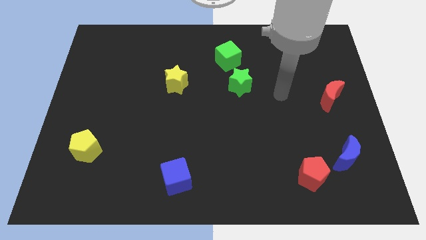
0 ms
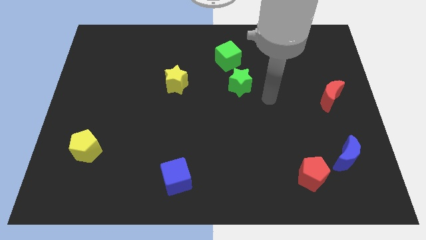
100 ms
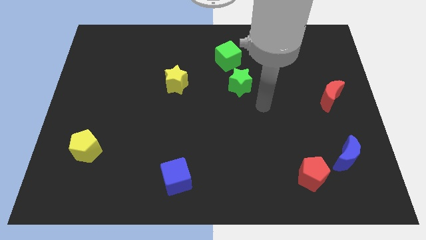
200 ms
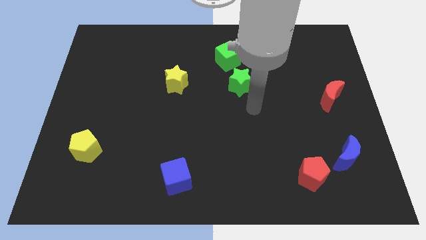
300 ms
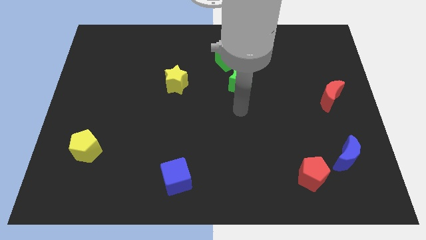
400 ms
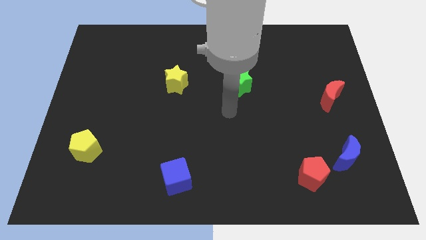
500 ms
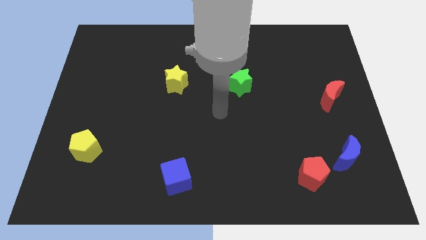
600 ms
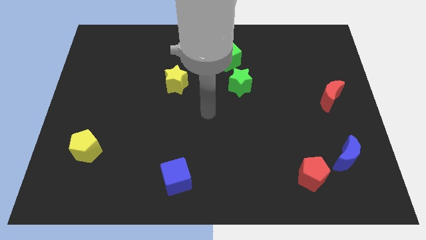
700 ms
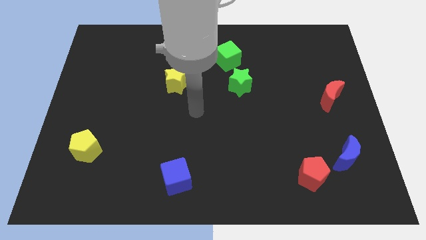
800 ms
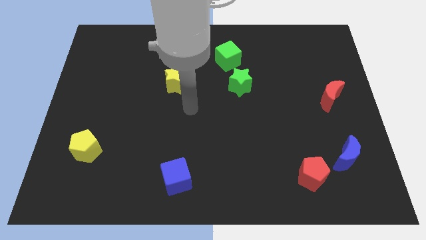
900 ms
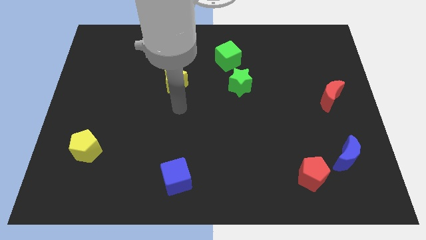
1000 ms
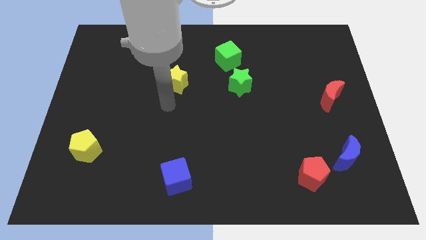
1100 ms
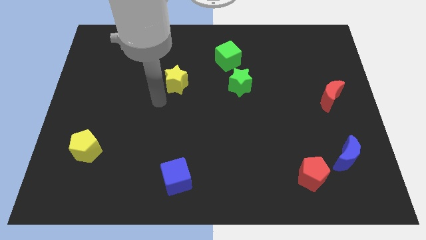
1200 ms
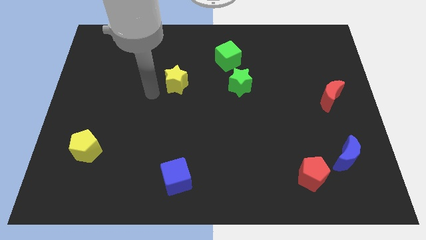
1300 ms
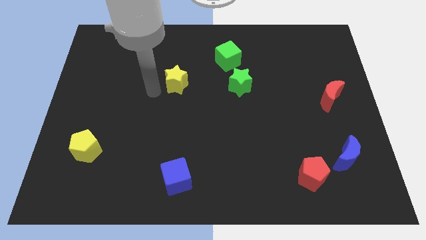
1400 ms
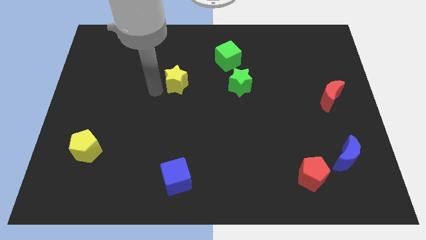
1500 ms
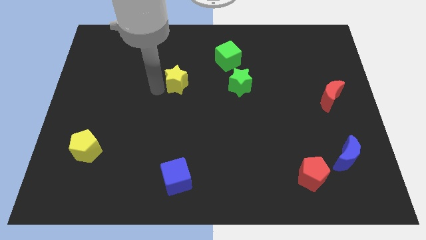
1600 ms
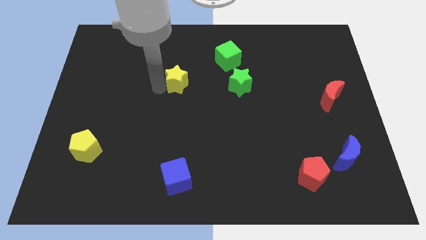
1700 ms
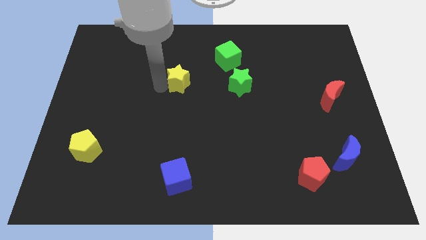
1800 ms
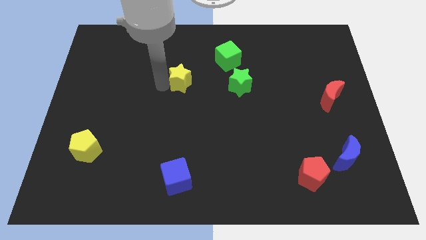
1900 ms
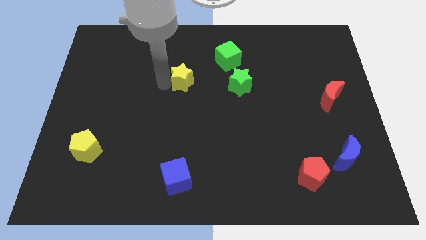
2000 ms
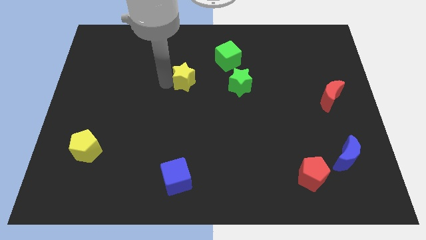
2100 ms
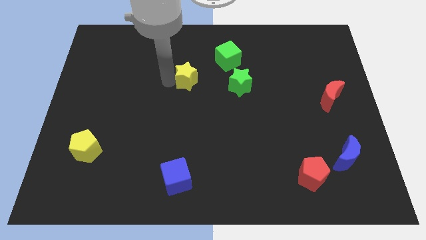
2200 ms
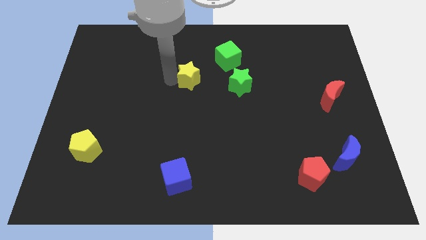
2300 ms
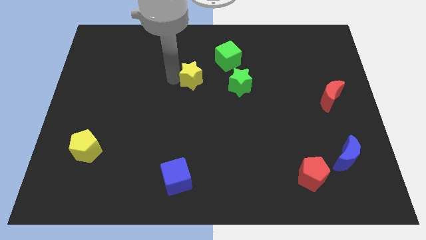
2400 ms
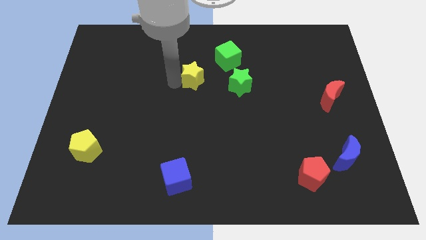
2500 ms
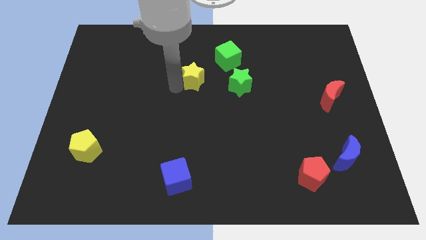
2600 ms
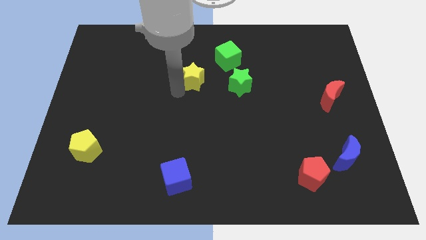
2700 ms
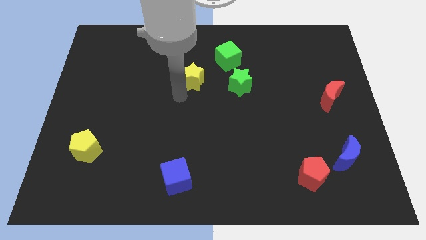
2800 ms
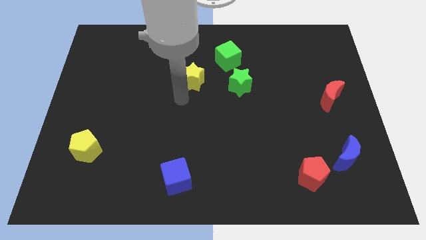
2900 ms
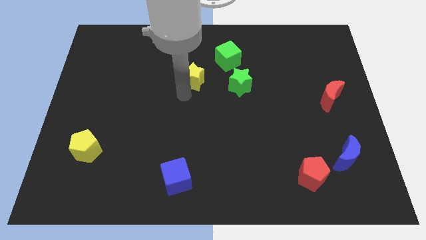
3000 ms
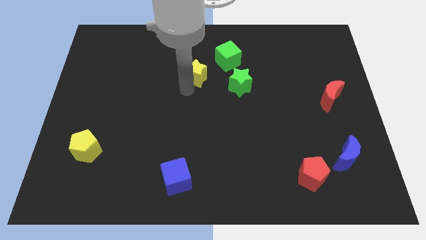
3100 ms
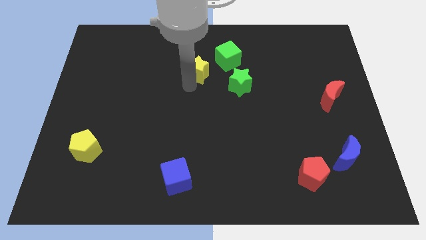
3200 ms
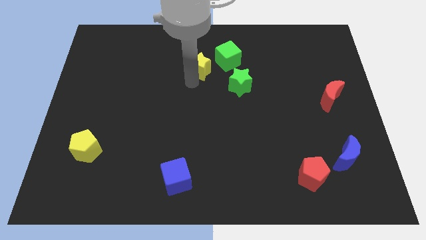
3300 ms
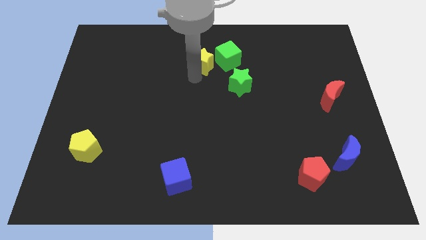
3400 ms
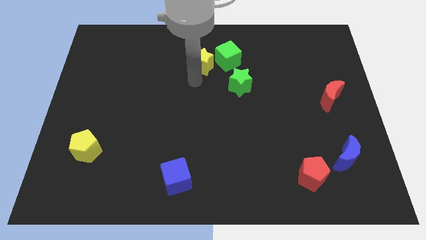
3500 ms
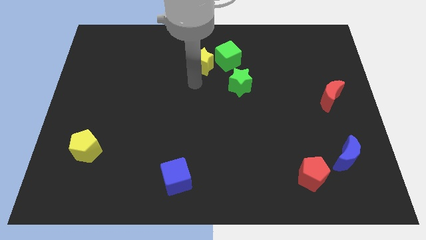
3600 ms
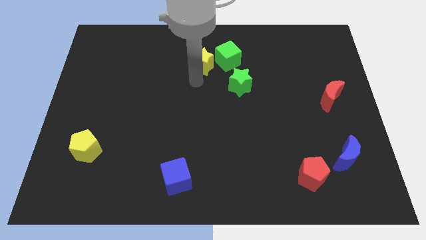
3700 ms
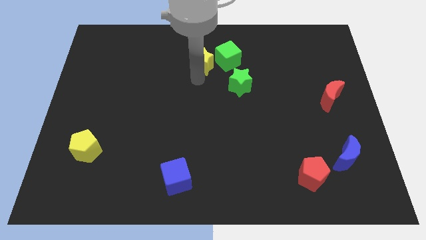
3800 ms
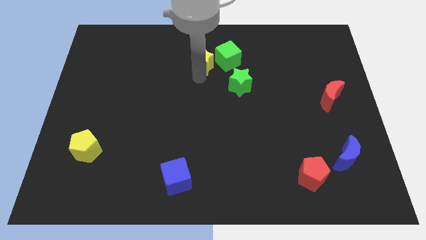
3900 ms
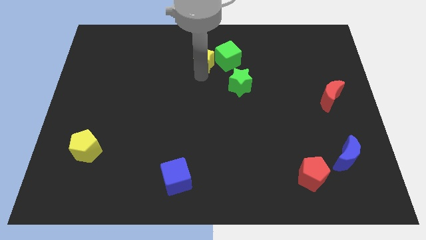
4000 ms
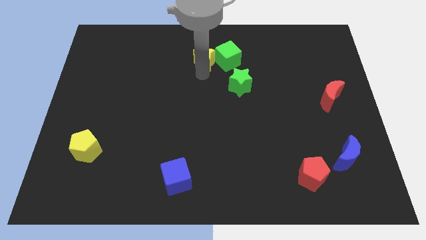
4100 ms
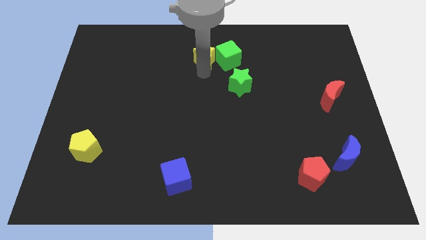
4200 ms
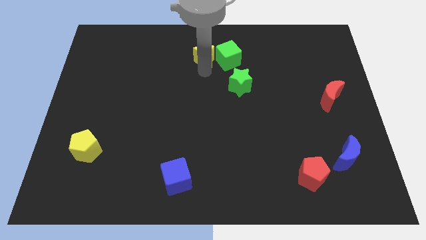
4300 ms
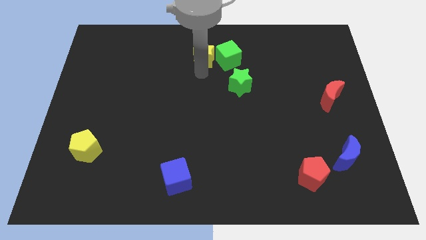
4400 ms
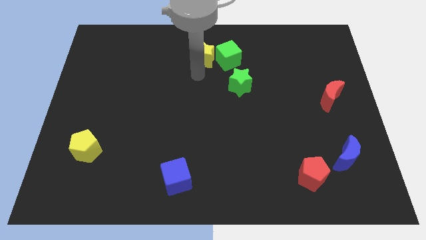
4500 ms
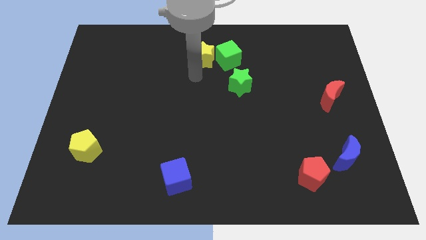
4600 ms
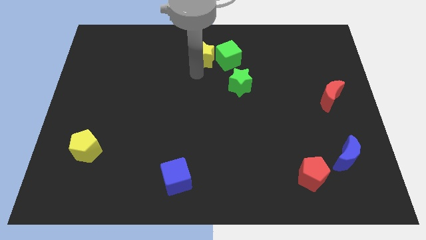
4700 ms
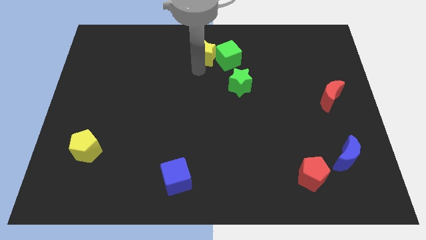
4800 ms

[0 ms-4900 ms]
push the yellow star to the top

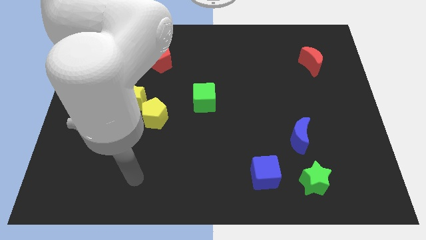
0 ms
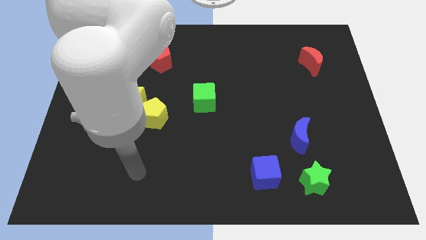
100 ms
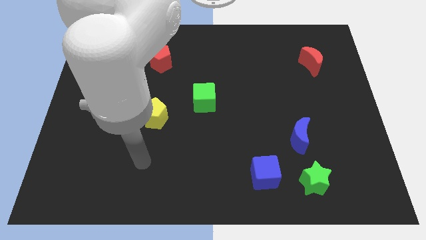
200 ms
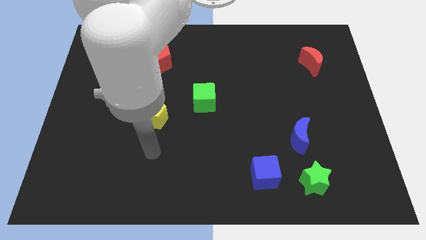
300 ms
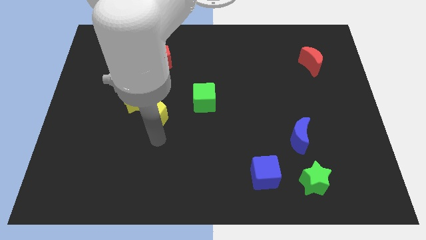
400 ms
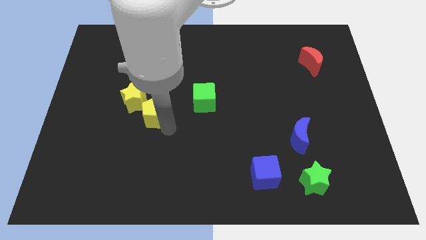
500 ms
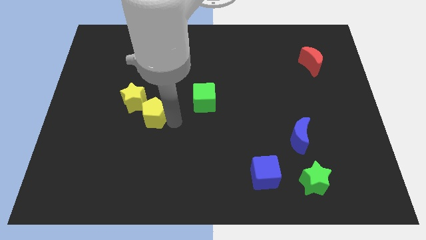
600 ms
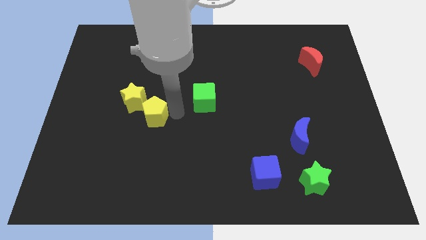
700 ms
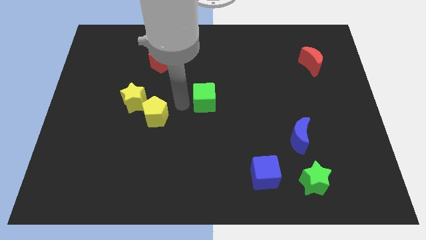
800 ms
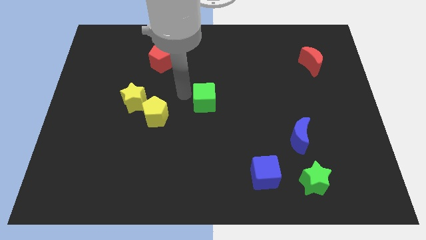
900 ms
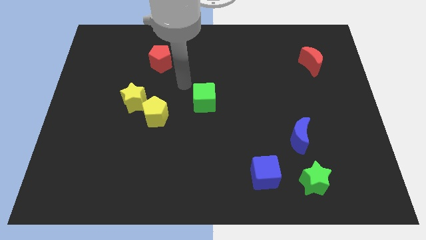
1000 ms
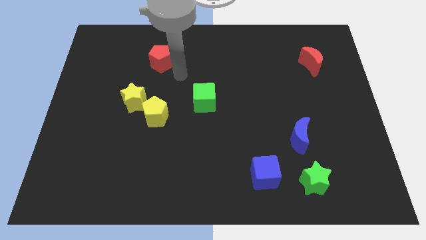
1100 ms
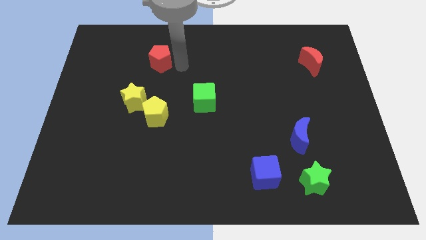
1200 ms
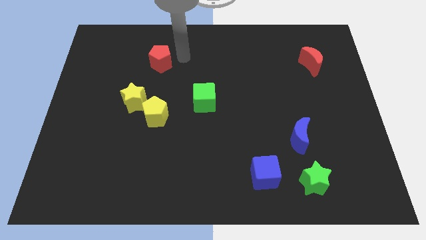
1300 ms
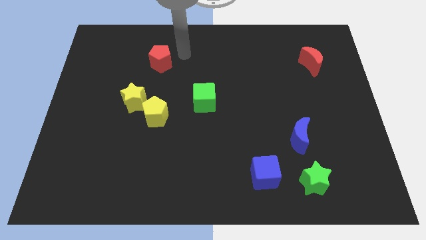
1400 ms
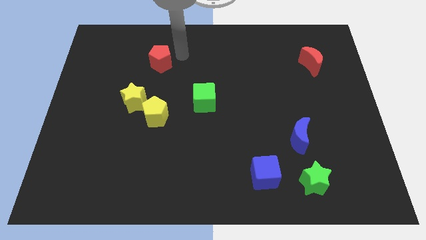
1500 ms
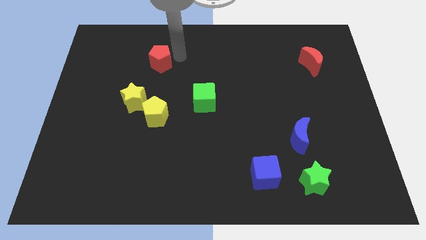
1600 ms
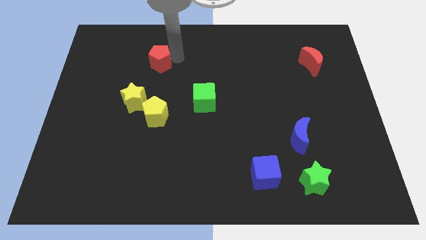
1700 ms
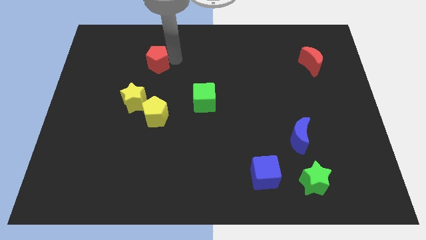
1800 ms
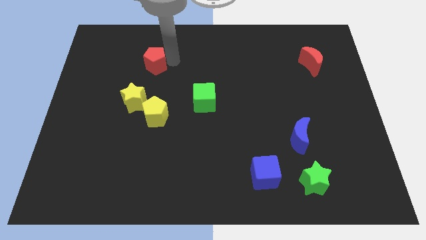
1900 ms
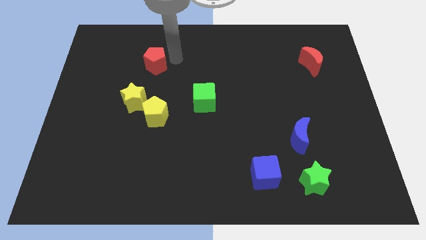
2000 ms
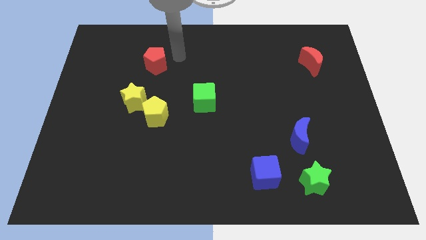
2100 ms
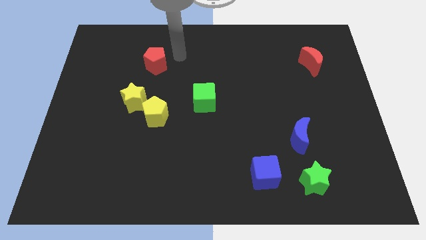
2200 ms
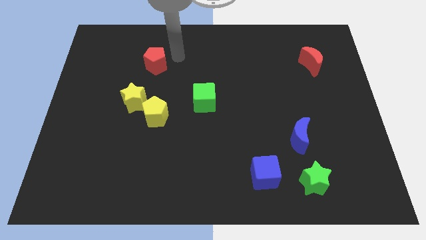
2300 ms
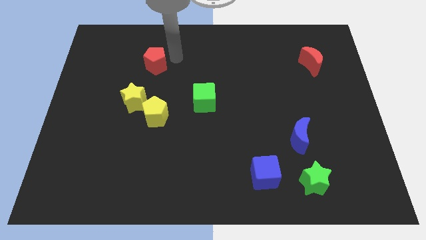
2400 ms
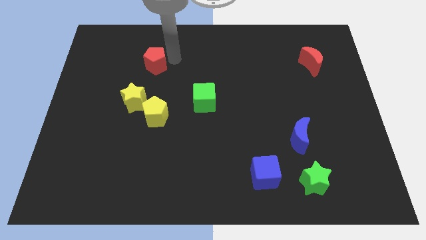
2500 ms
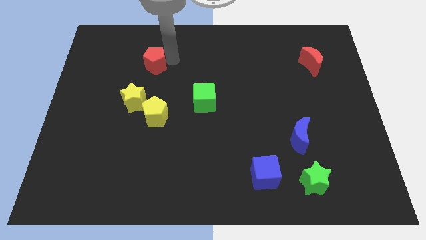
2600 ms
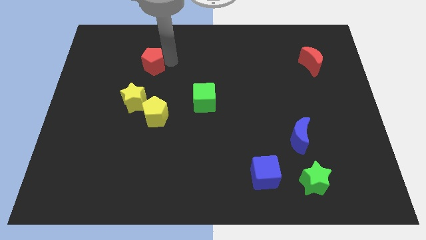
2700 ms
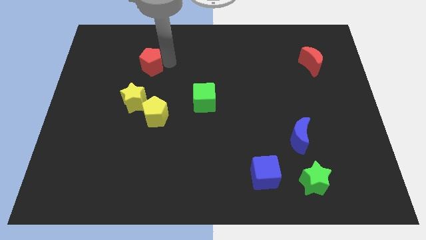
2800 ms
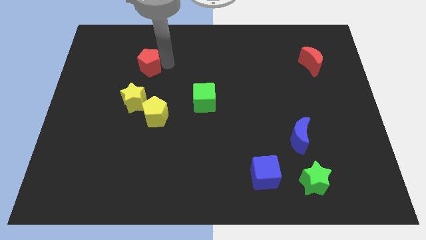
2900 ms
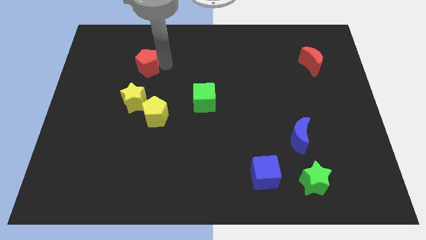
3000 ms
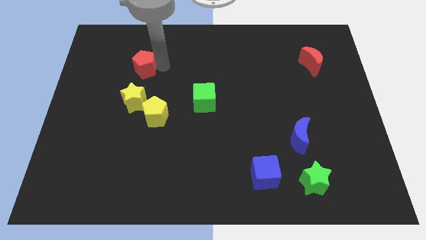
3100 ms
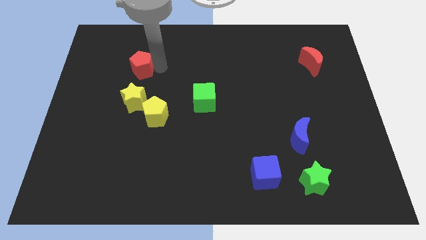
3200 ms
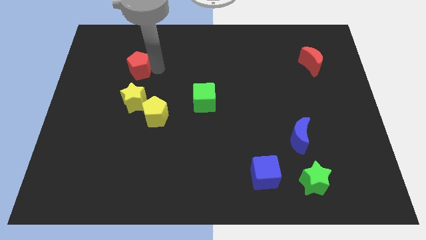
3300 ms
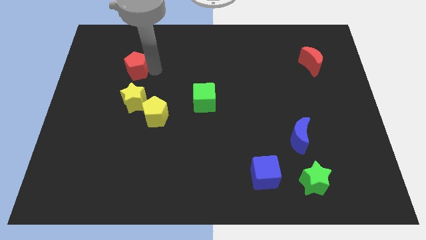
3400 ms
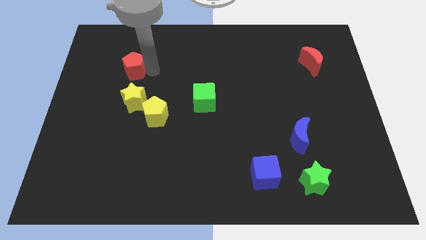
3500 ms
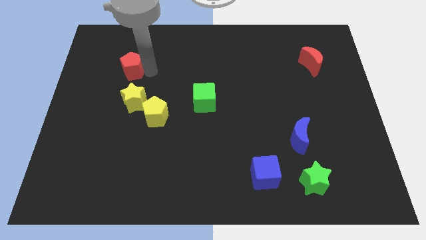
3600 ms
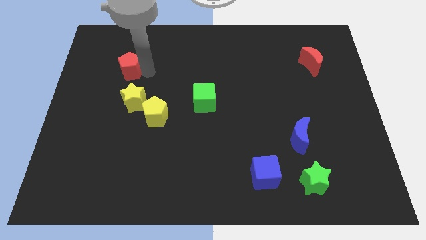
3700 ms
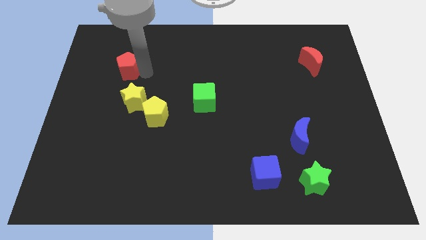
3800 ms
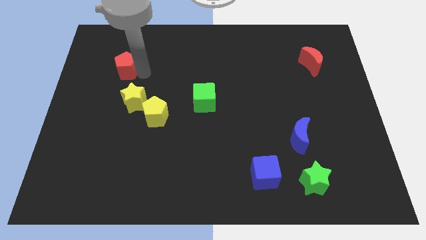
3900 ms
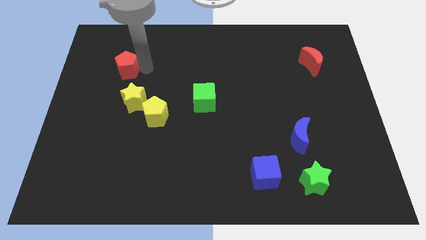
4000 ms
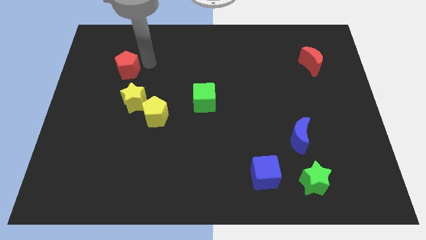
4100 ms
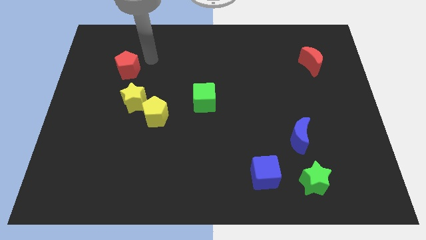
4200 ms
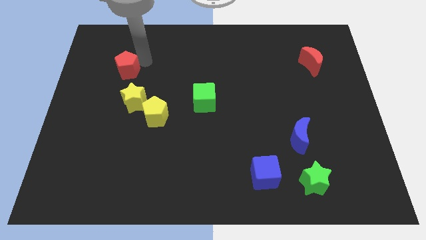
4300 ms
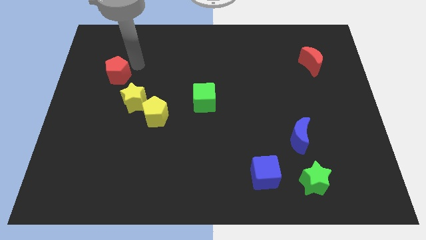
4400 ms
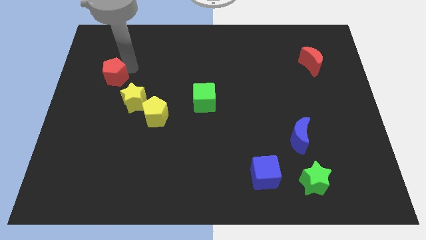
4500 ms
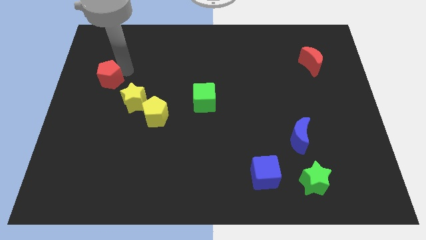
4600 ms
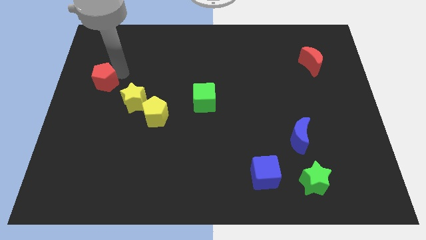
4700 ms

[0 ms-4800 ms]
put the red pentagon to the left side of the board
